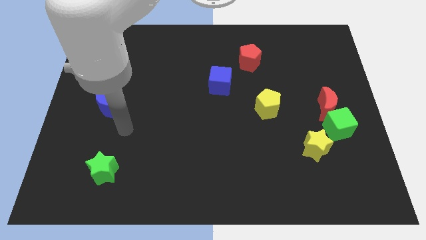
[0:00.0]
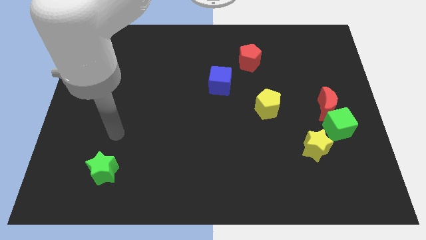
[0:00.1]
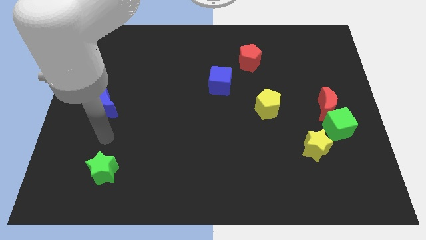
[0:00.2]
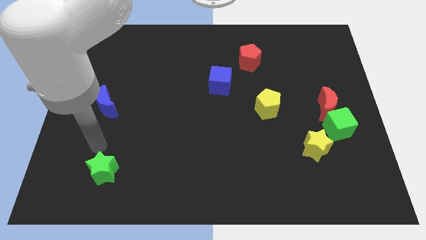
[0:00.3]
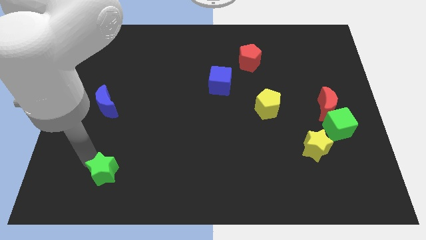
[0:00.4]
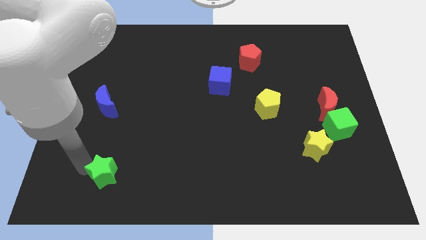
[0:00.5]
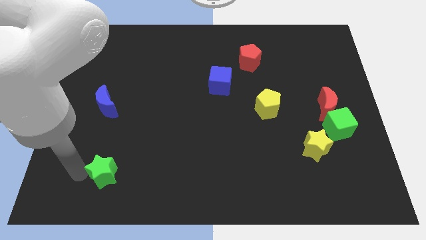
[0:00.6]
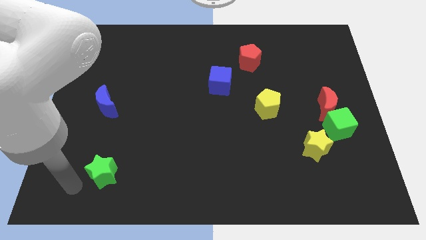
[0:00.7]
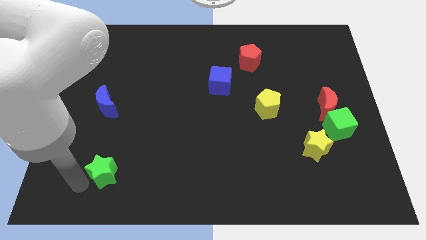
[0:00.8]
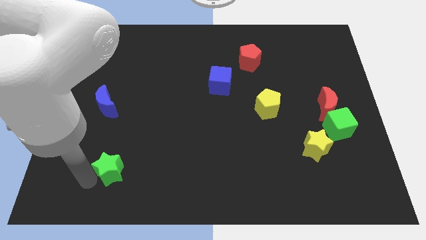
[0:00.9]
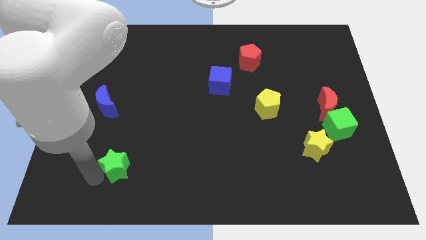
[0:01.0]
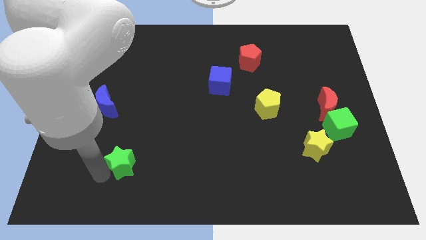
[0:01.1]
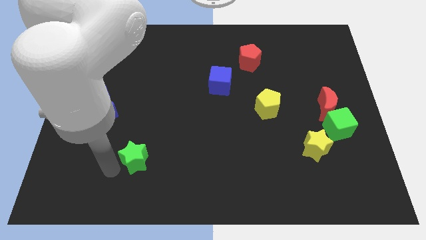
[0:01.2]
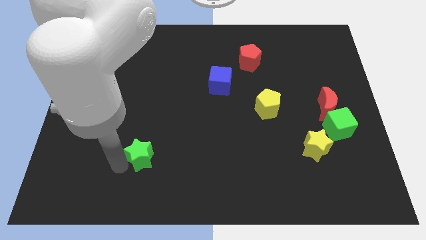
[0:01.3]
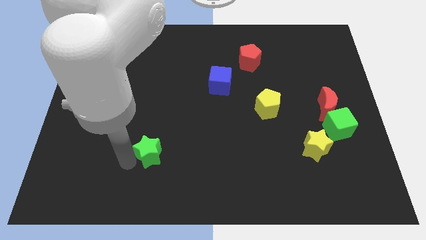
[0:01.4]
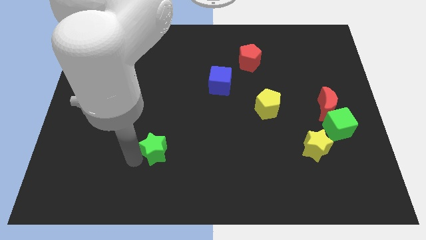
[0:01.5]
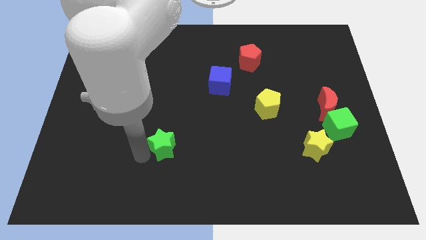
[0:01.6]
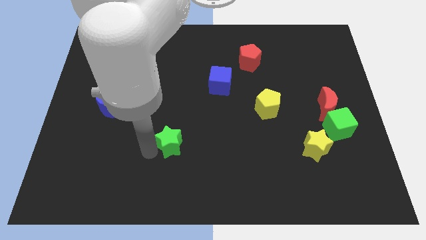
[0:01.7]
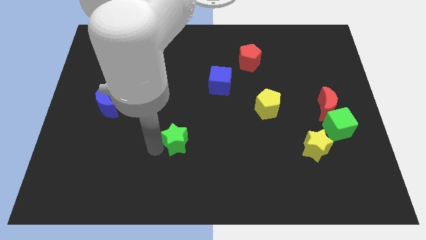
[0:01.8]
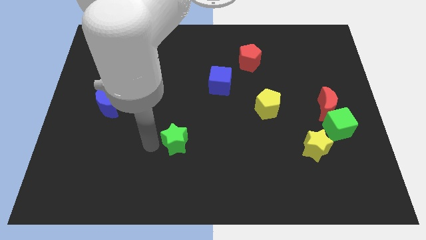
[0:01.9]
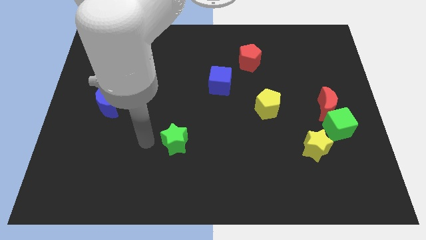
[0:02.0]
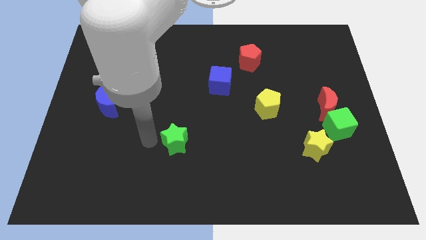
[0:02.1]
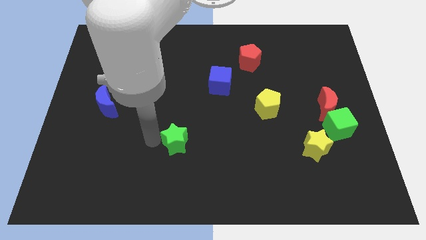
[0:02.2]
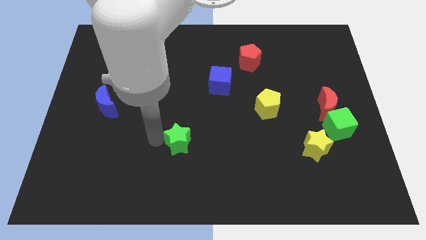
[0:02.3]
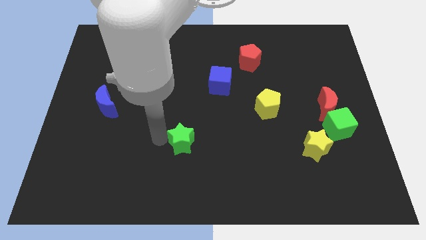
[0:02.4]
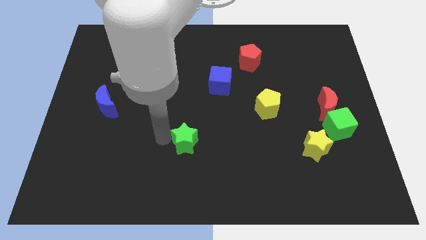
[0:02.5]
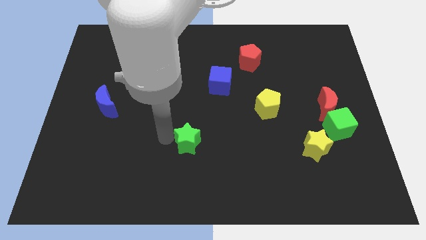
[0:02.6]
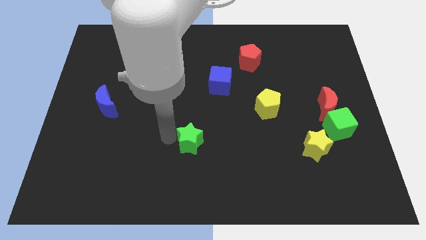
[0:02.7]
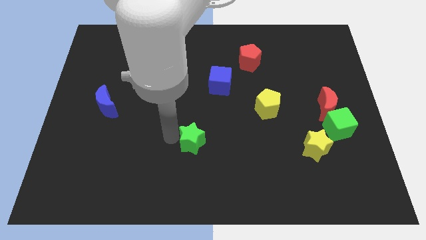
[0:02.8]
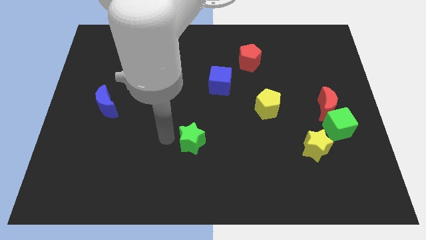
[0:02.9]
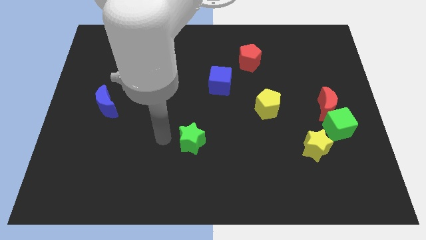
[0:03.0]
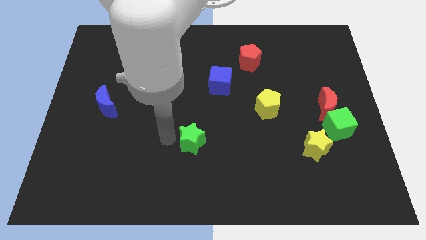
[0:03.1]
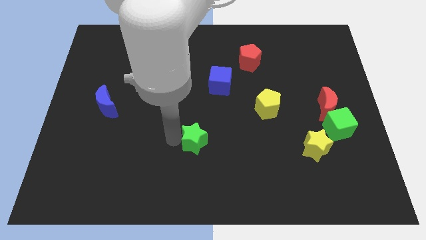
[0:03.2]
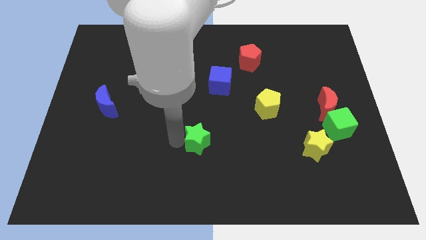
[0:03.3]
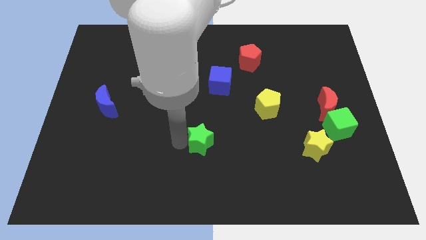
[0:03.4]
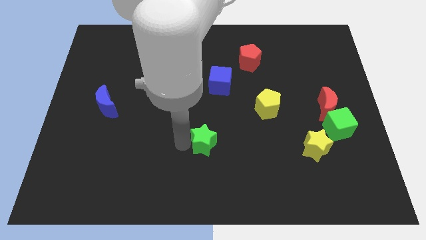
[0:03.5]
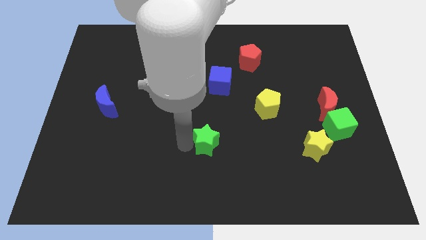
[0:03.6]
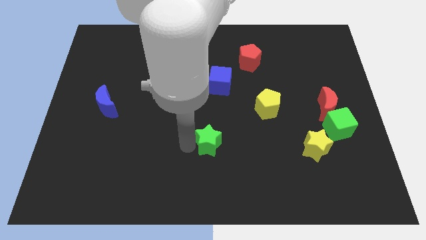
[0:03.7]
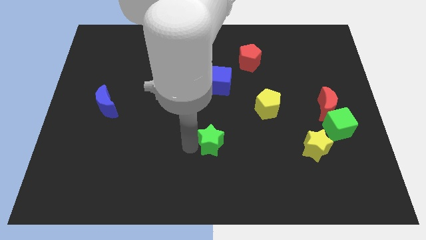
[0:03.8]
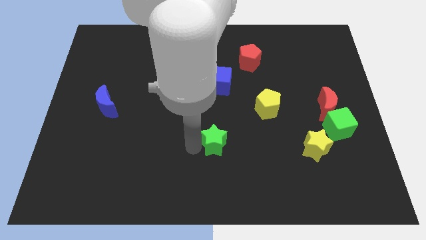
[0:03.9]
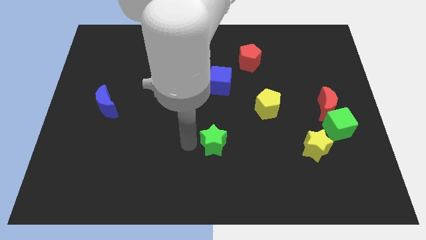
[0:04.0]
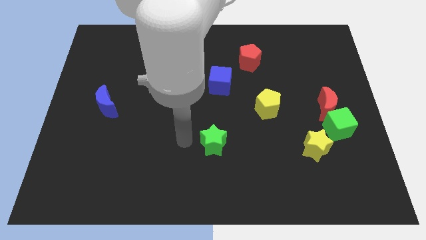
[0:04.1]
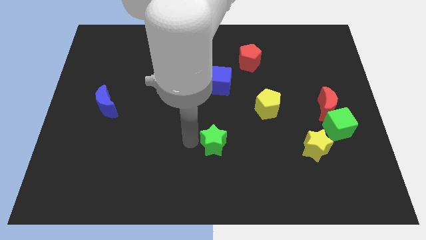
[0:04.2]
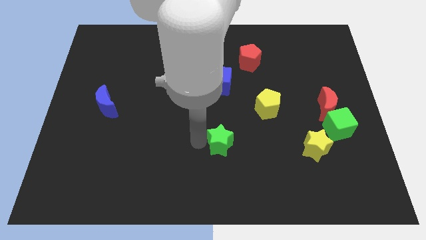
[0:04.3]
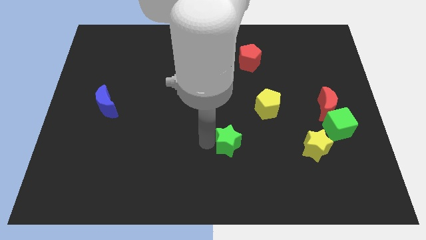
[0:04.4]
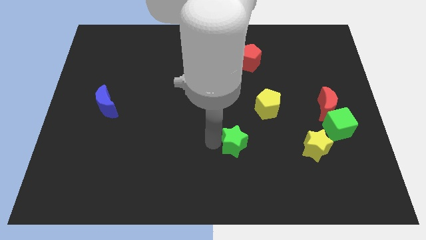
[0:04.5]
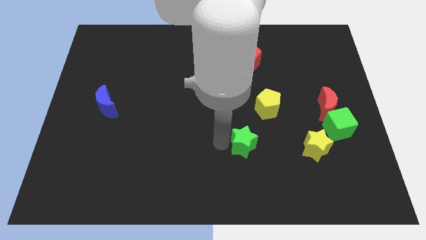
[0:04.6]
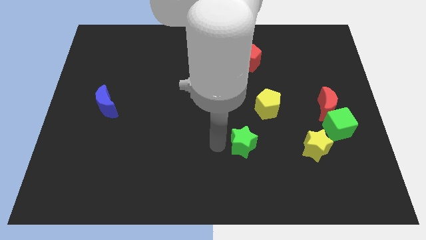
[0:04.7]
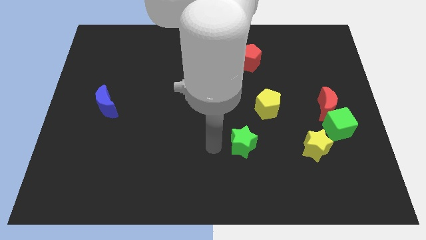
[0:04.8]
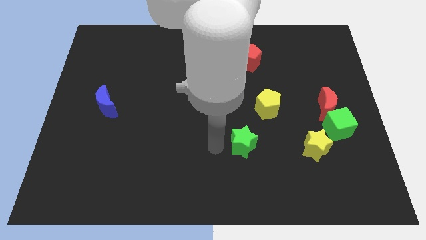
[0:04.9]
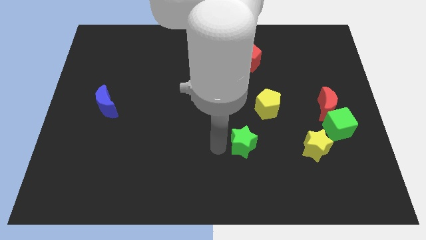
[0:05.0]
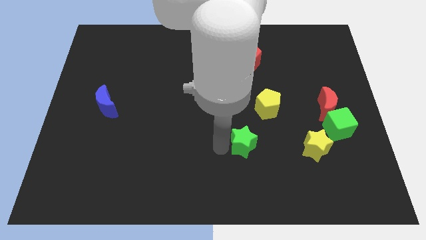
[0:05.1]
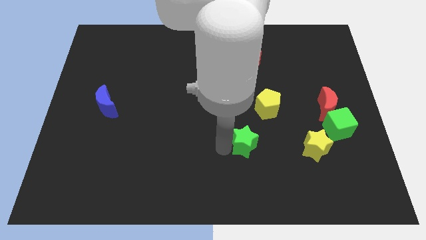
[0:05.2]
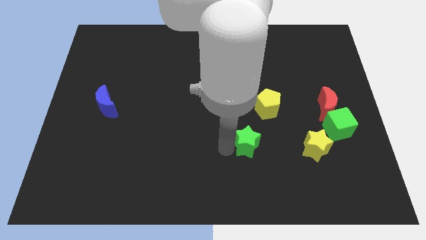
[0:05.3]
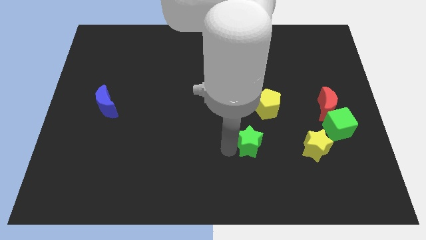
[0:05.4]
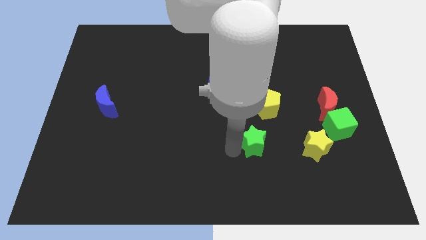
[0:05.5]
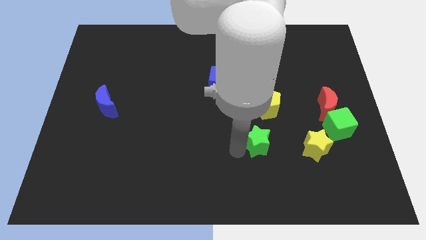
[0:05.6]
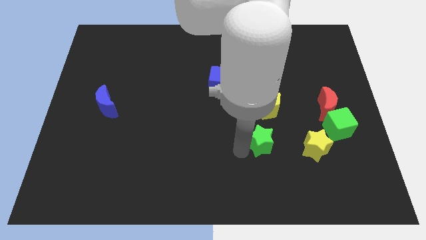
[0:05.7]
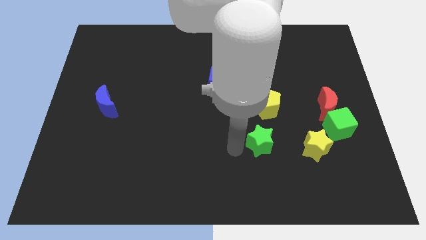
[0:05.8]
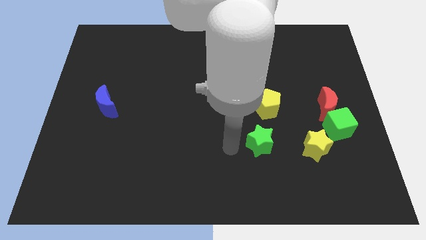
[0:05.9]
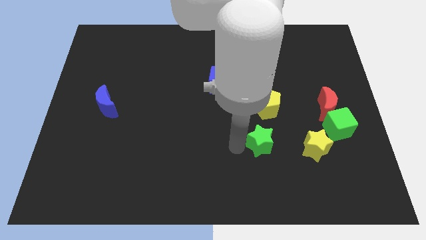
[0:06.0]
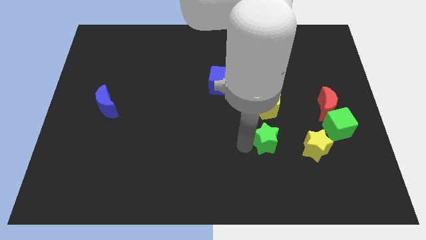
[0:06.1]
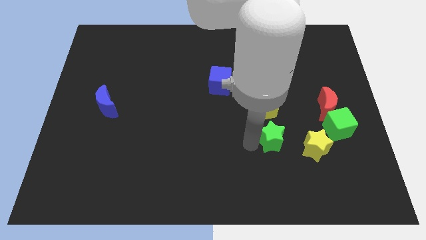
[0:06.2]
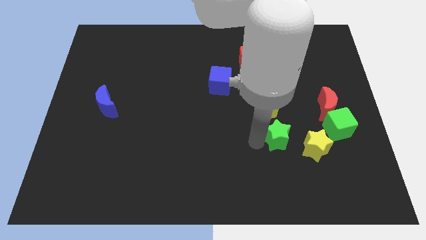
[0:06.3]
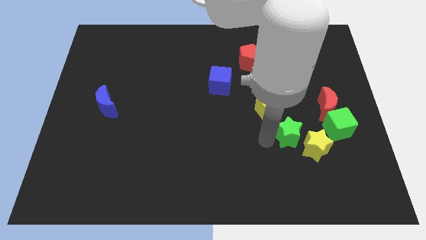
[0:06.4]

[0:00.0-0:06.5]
push the green star to the bottom left side of the red moon

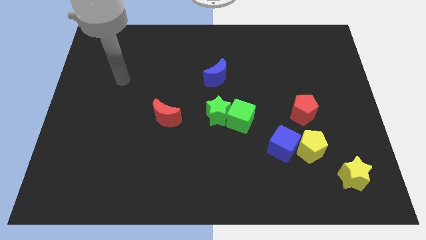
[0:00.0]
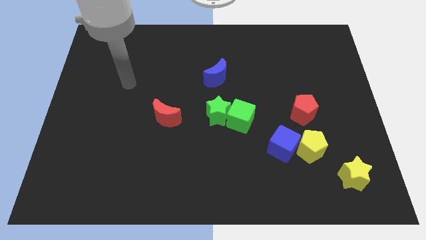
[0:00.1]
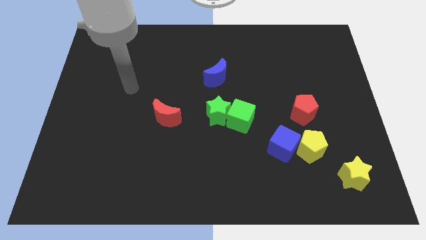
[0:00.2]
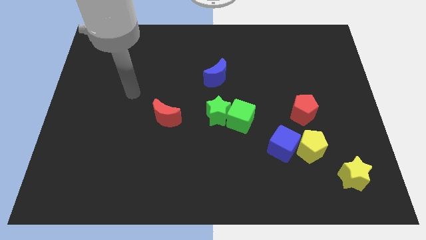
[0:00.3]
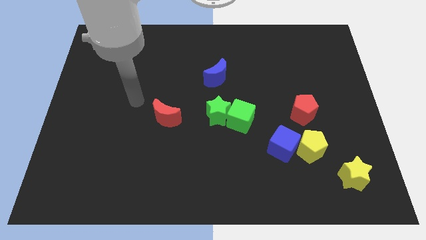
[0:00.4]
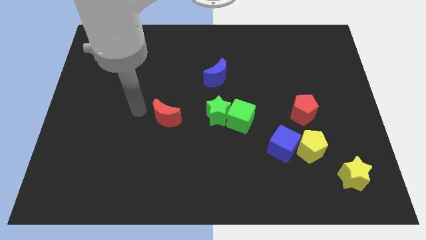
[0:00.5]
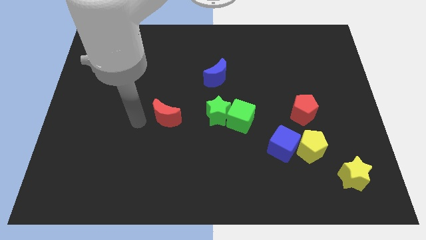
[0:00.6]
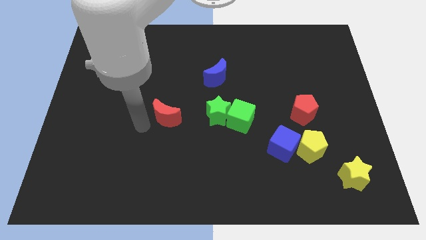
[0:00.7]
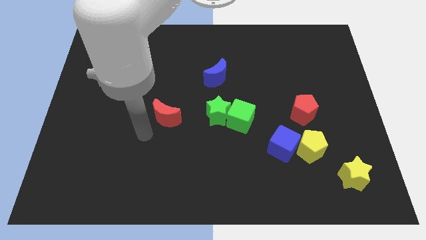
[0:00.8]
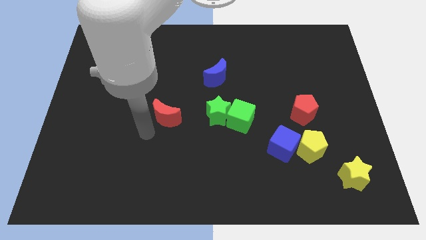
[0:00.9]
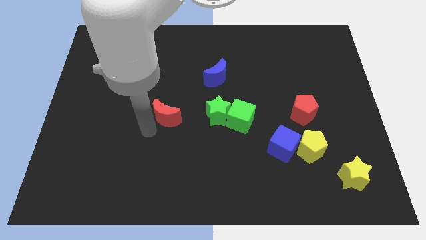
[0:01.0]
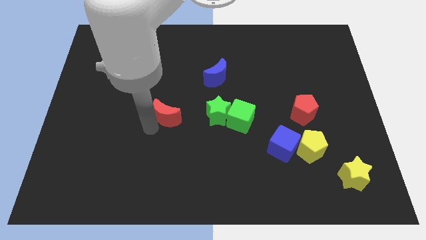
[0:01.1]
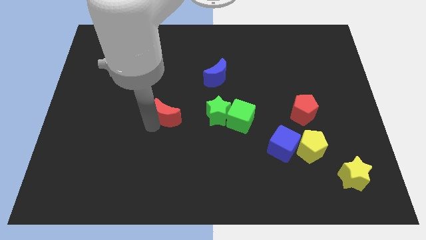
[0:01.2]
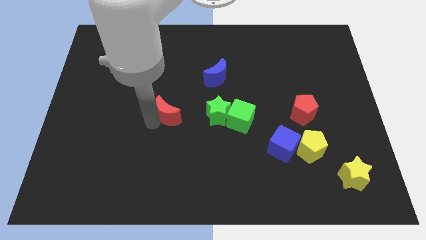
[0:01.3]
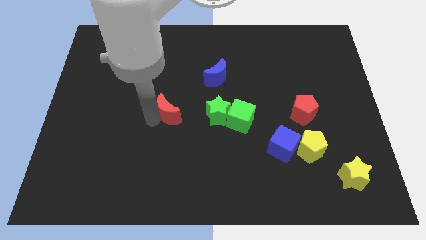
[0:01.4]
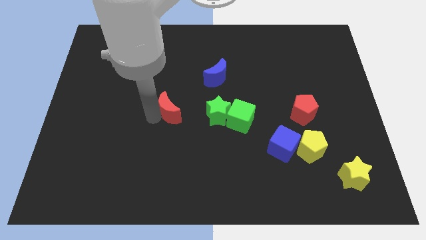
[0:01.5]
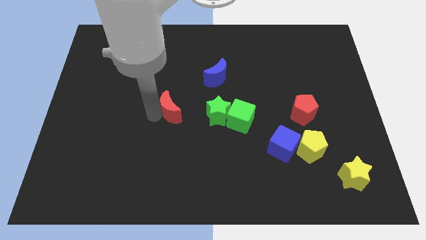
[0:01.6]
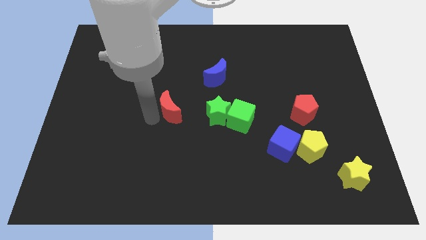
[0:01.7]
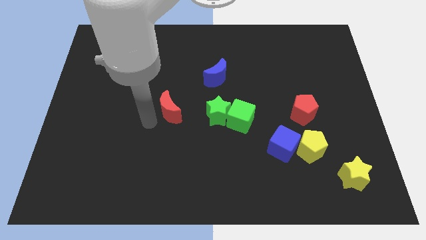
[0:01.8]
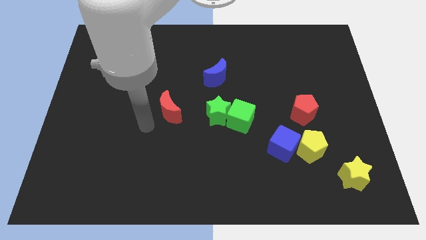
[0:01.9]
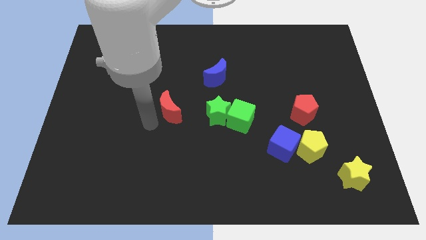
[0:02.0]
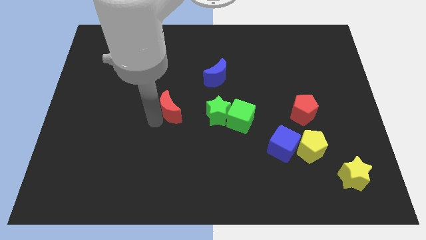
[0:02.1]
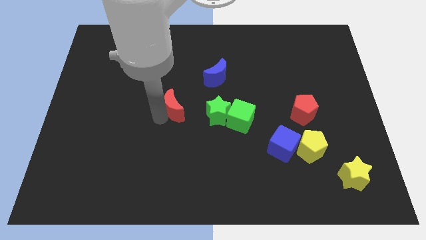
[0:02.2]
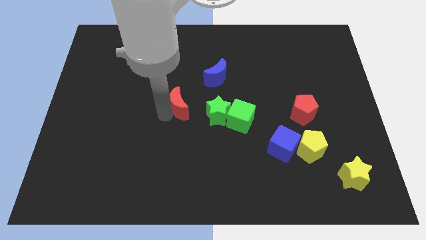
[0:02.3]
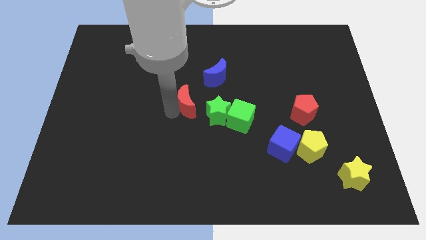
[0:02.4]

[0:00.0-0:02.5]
put the red moon diagonally down and to the left of the blue moon
